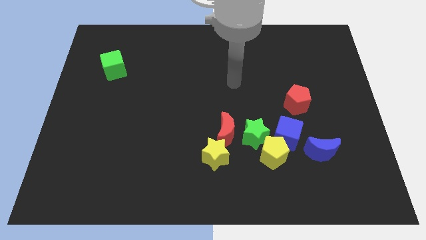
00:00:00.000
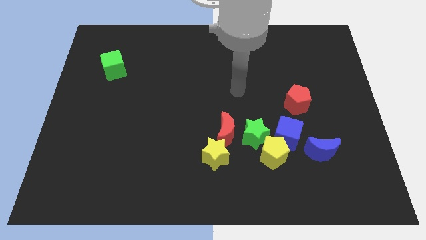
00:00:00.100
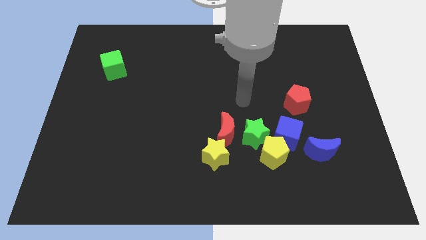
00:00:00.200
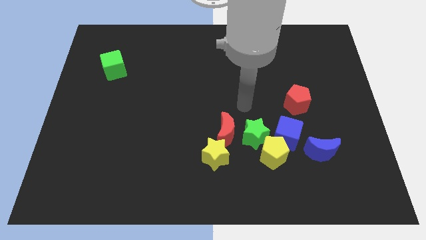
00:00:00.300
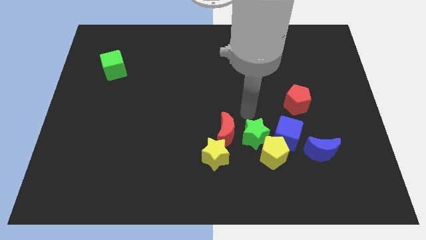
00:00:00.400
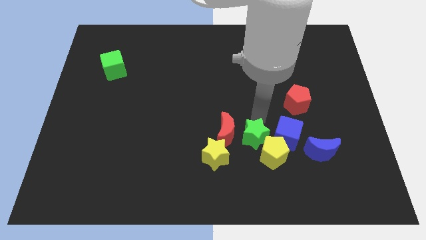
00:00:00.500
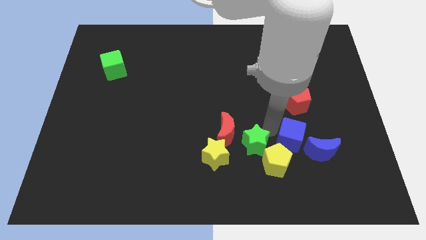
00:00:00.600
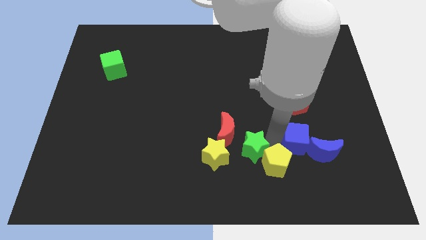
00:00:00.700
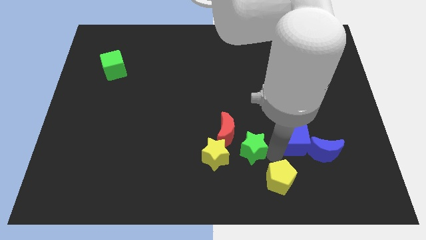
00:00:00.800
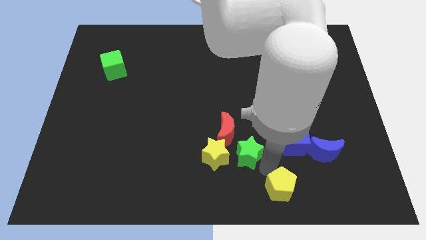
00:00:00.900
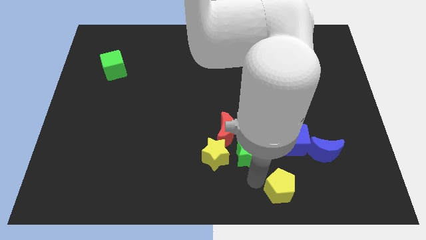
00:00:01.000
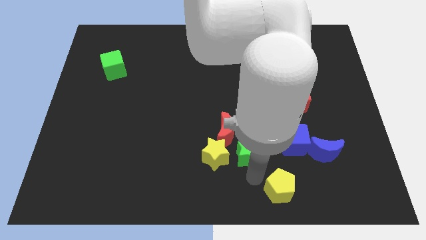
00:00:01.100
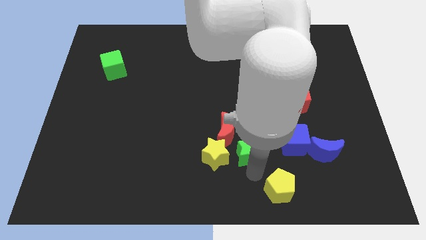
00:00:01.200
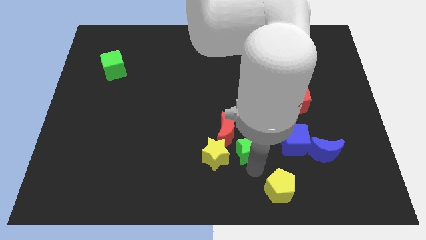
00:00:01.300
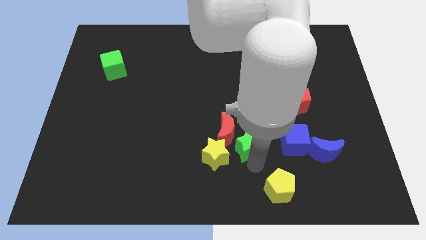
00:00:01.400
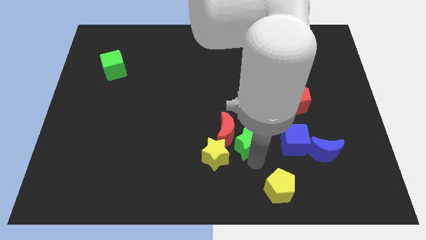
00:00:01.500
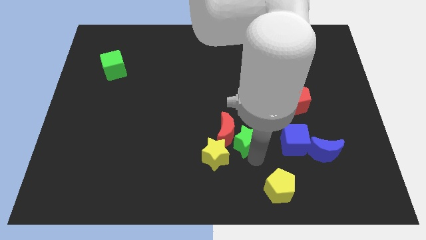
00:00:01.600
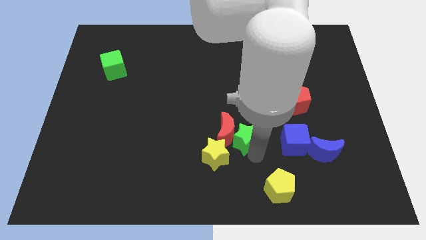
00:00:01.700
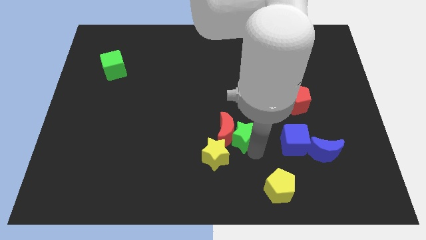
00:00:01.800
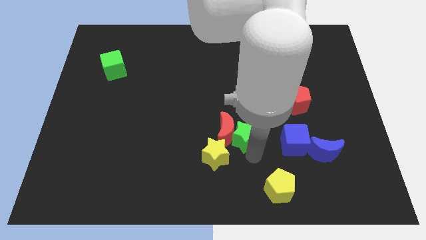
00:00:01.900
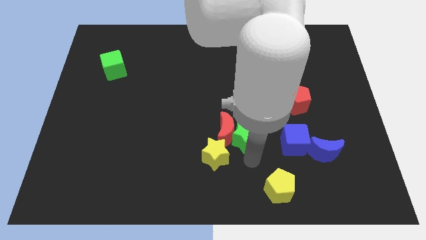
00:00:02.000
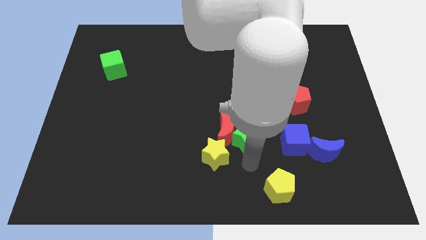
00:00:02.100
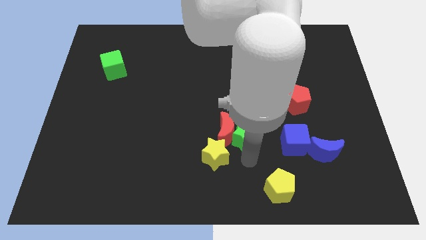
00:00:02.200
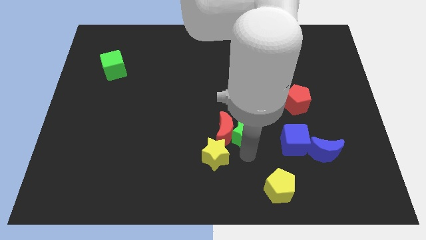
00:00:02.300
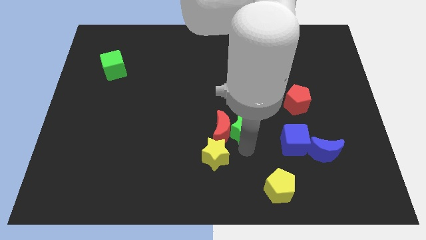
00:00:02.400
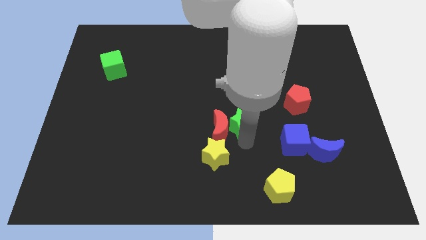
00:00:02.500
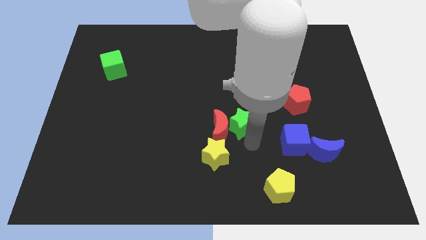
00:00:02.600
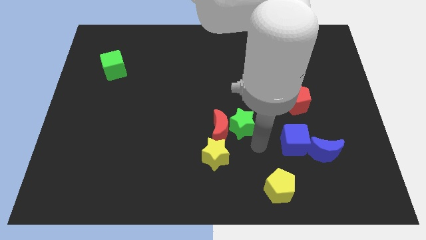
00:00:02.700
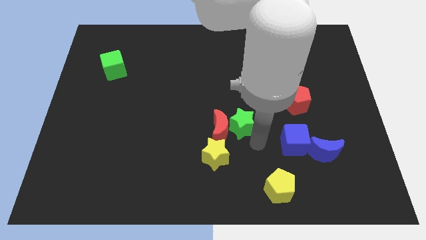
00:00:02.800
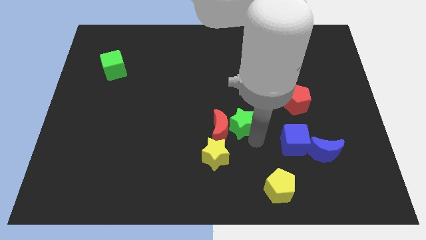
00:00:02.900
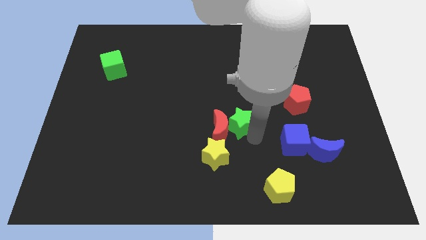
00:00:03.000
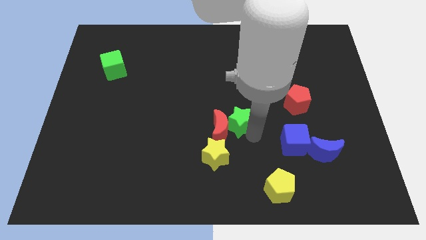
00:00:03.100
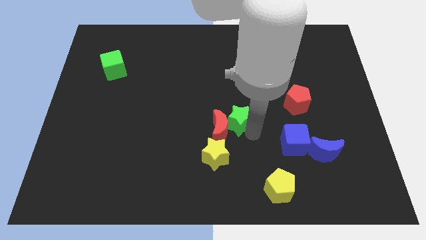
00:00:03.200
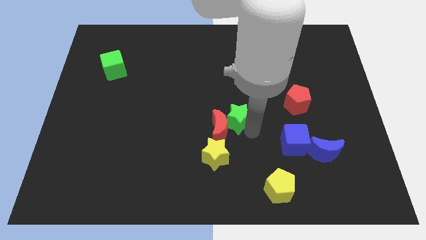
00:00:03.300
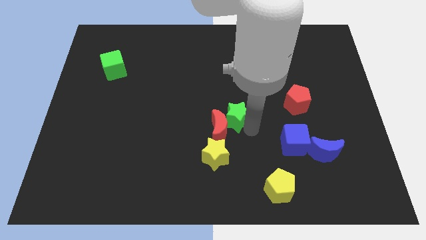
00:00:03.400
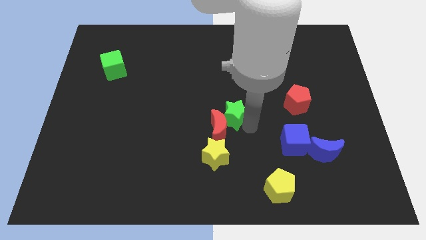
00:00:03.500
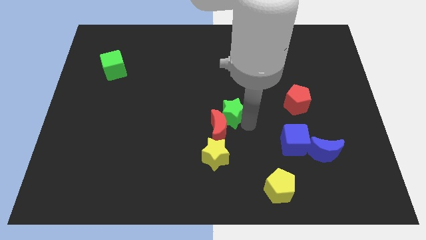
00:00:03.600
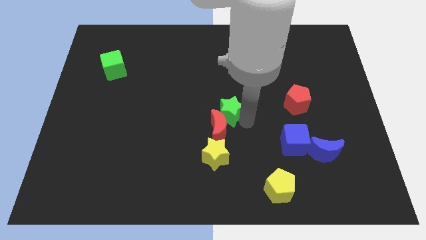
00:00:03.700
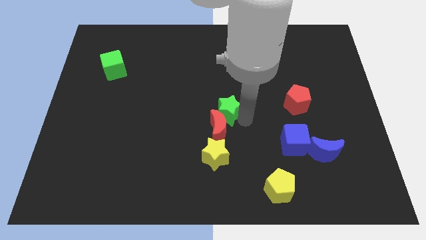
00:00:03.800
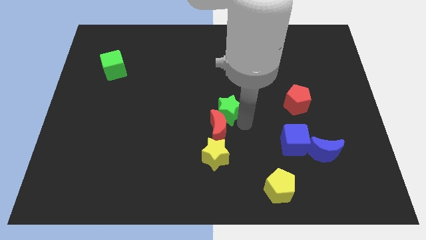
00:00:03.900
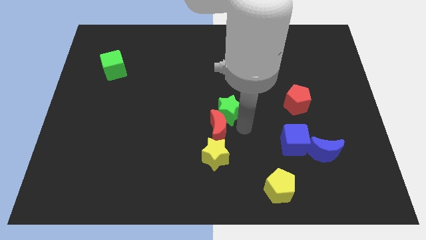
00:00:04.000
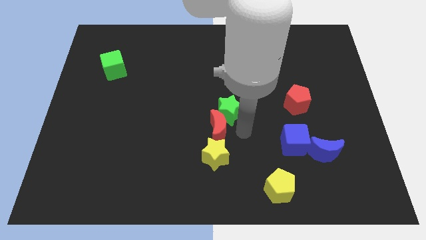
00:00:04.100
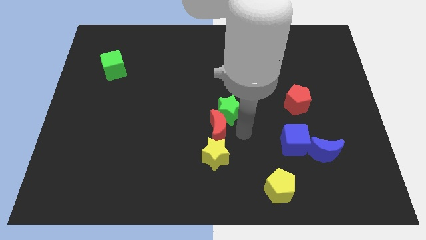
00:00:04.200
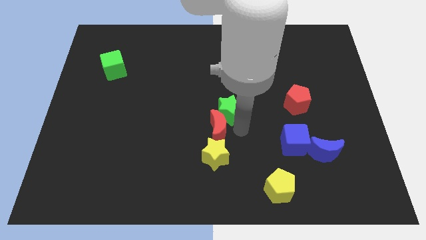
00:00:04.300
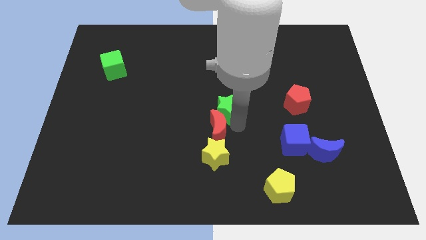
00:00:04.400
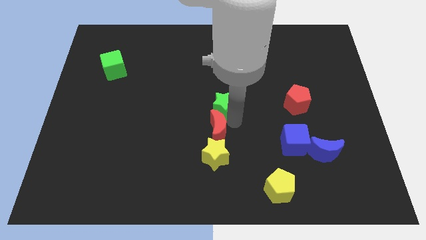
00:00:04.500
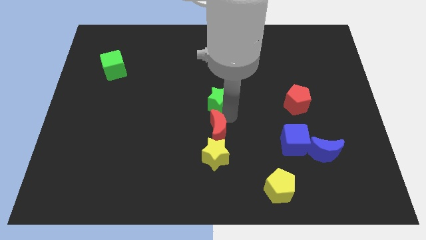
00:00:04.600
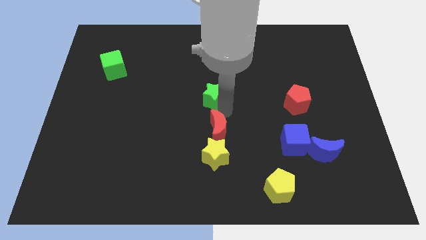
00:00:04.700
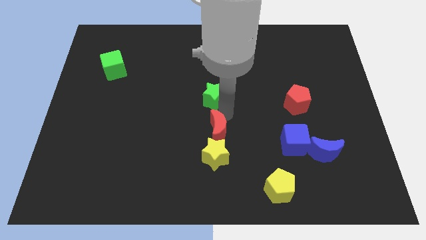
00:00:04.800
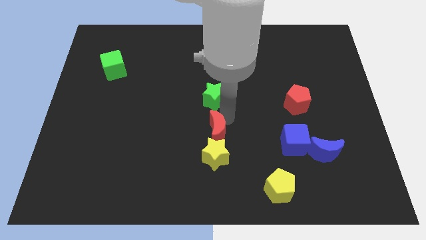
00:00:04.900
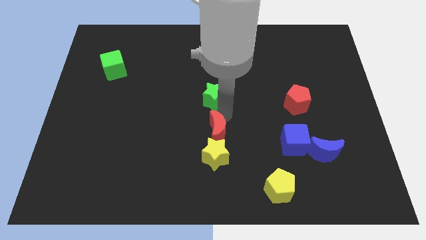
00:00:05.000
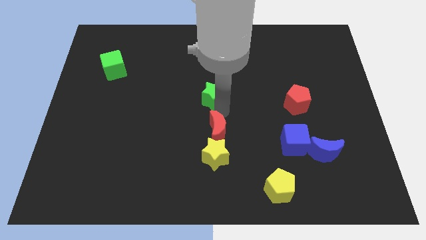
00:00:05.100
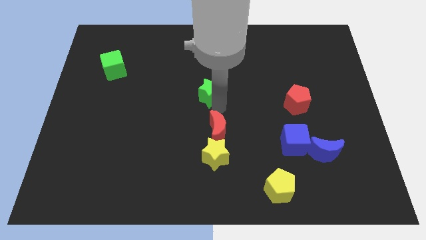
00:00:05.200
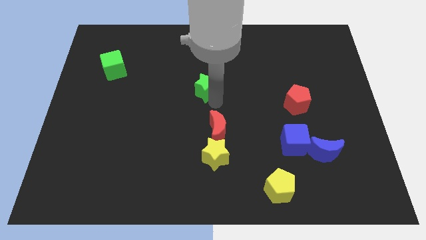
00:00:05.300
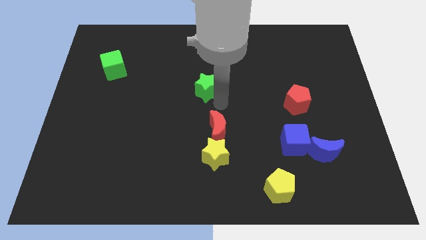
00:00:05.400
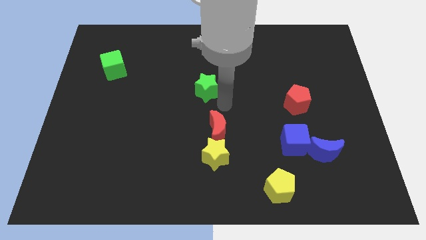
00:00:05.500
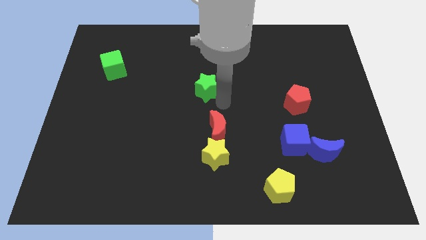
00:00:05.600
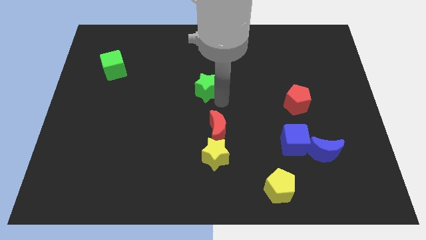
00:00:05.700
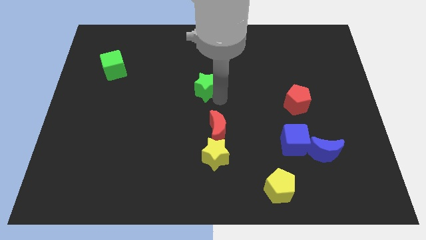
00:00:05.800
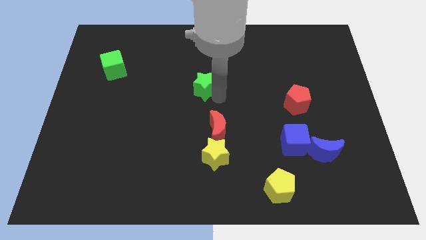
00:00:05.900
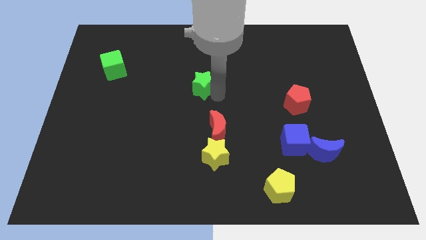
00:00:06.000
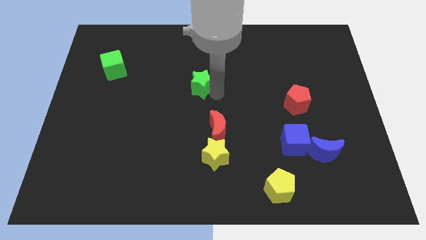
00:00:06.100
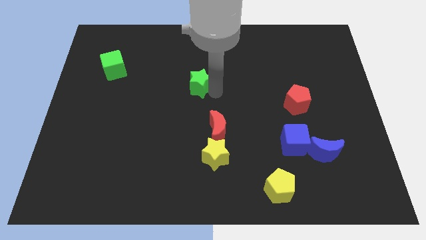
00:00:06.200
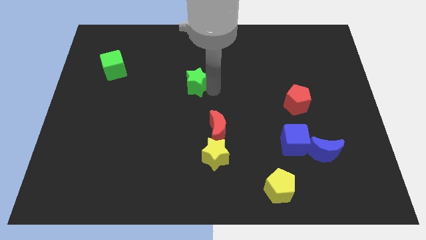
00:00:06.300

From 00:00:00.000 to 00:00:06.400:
push the green star upwards and left

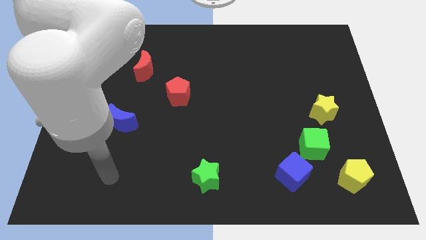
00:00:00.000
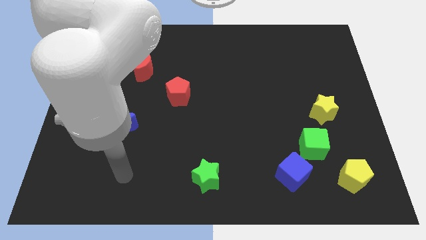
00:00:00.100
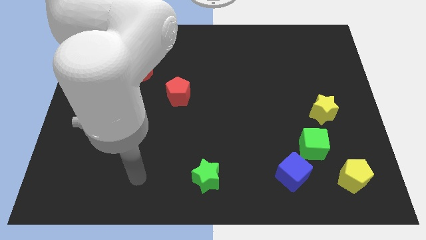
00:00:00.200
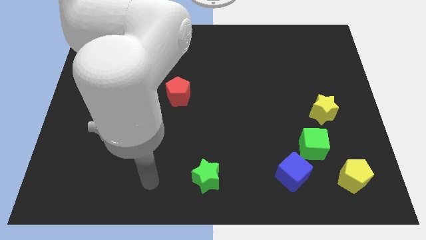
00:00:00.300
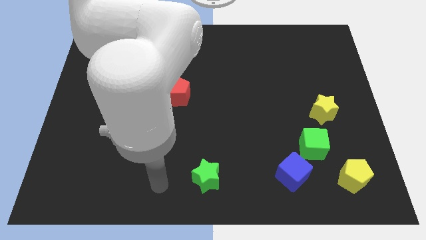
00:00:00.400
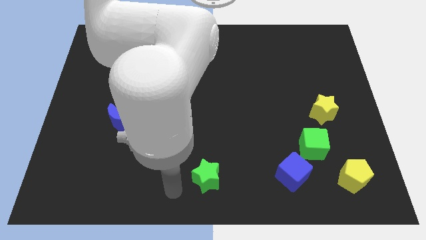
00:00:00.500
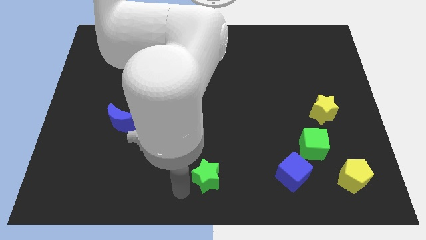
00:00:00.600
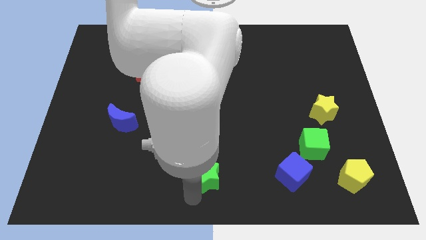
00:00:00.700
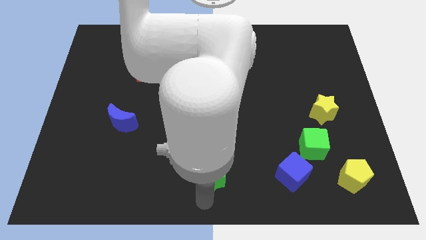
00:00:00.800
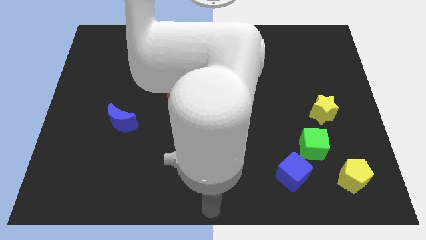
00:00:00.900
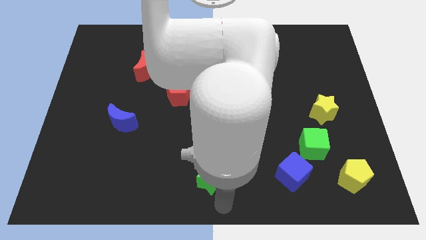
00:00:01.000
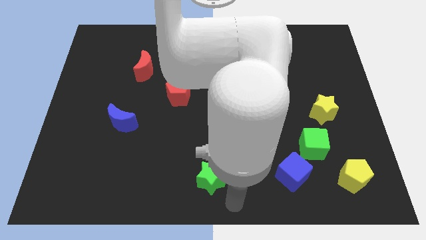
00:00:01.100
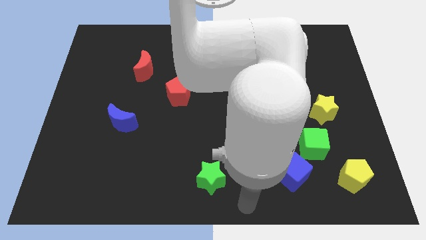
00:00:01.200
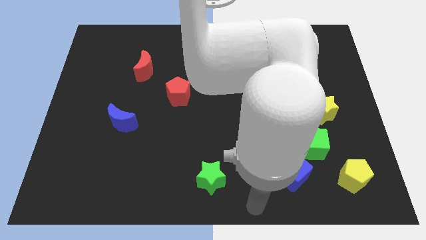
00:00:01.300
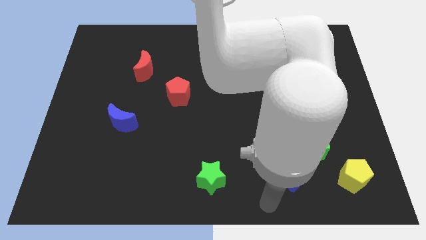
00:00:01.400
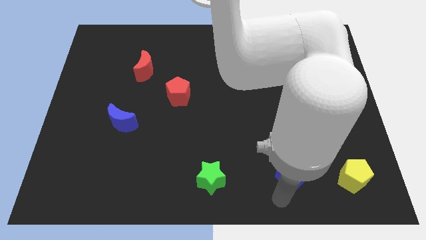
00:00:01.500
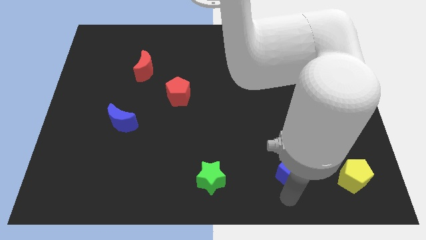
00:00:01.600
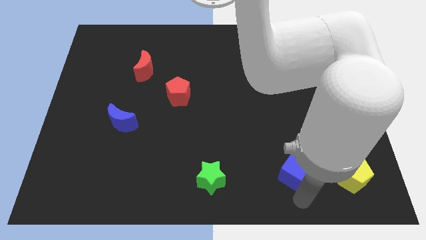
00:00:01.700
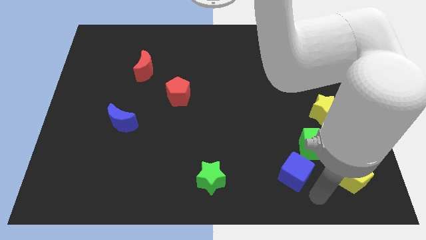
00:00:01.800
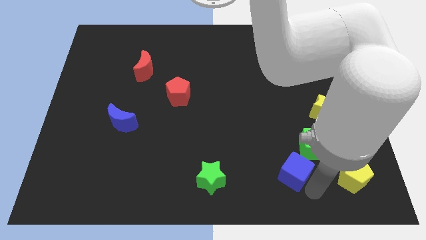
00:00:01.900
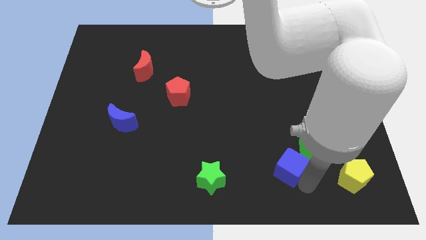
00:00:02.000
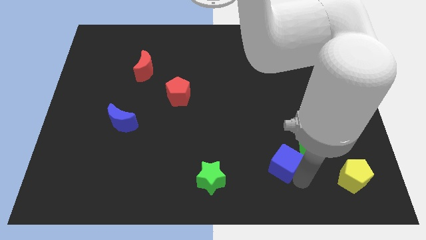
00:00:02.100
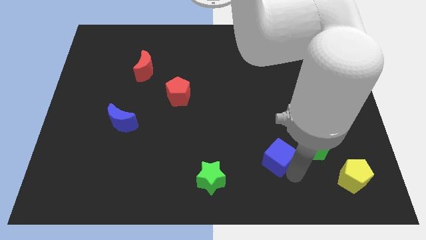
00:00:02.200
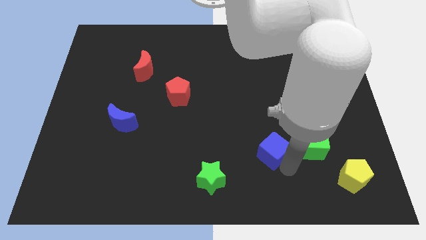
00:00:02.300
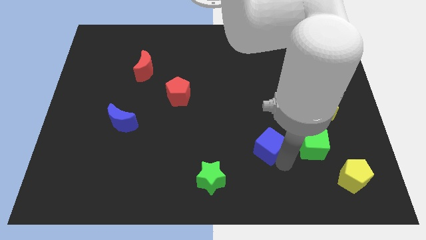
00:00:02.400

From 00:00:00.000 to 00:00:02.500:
slide the blue cube a little upwards and then to the left
